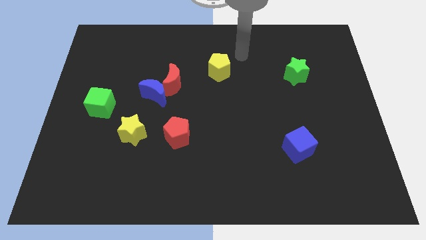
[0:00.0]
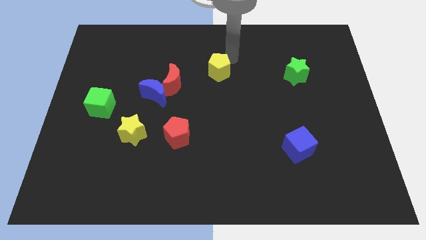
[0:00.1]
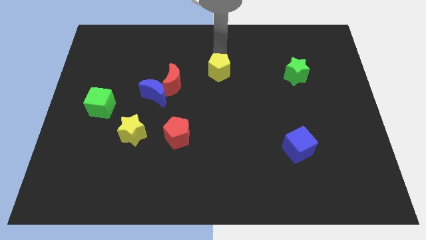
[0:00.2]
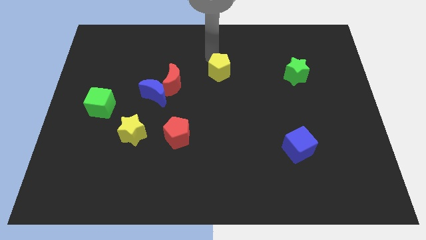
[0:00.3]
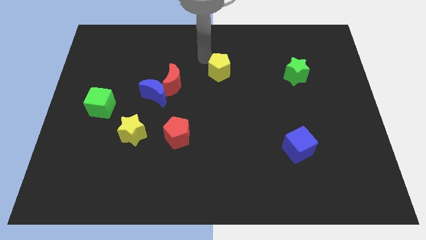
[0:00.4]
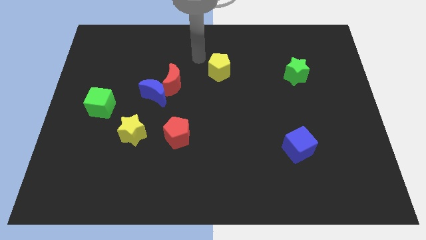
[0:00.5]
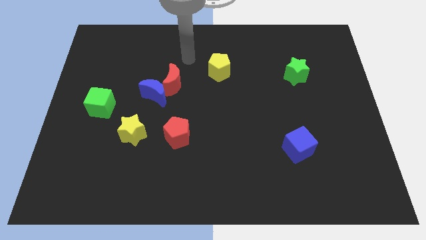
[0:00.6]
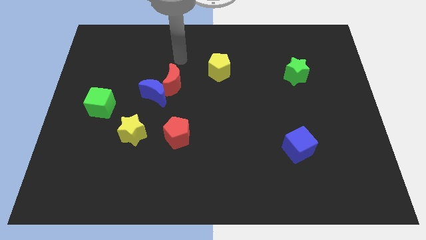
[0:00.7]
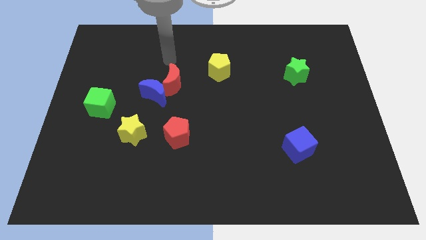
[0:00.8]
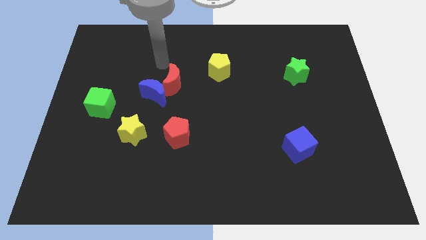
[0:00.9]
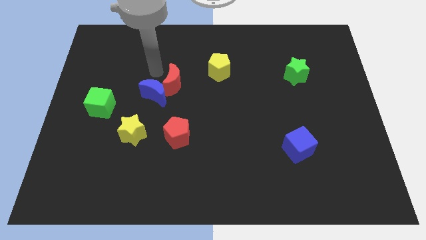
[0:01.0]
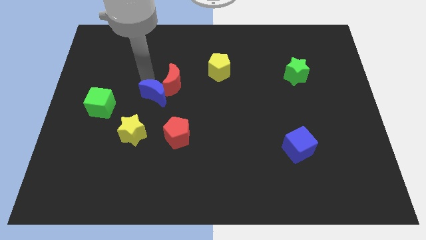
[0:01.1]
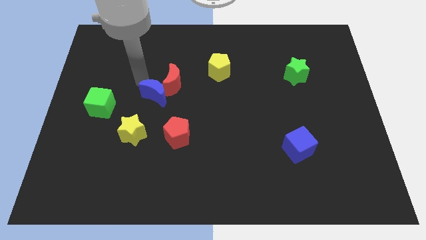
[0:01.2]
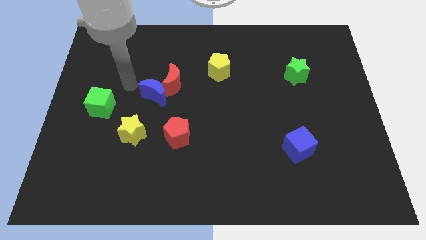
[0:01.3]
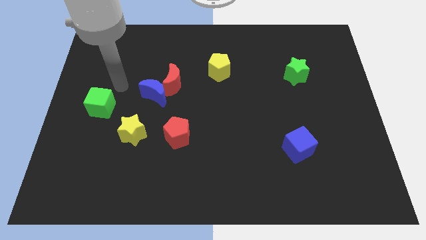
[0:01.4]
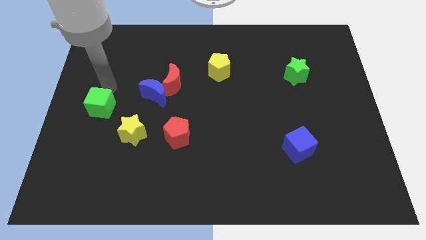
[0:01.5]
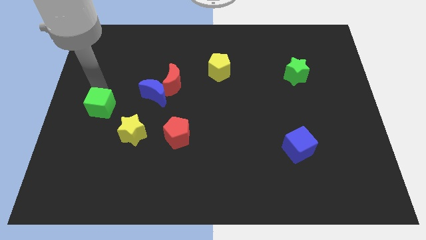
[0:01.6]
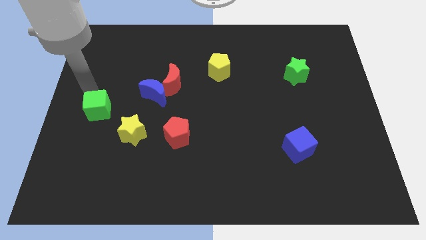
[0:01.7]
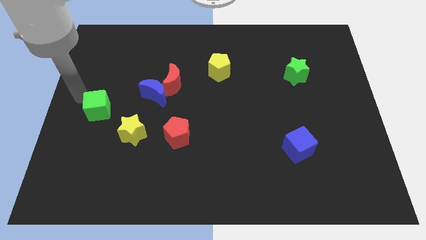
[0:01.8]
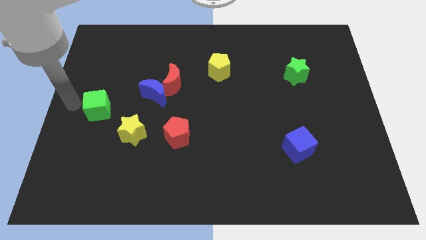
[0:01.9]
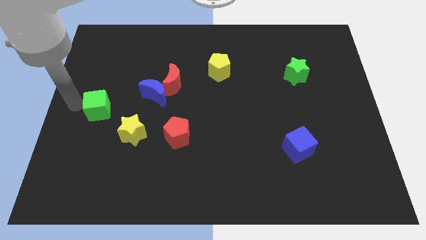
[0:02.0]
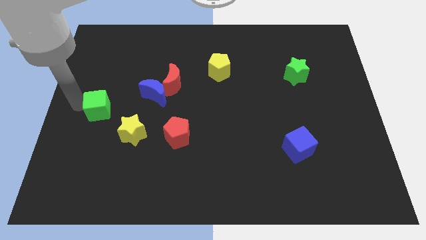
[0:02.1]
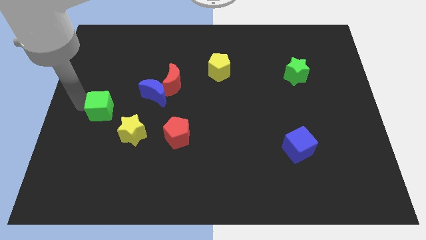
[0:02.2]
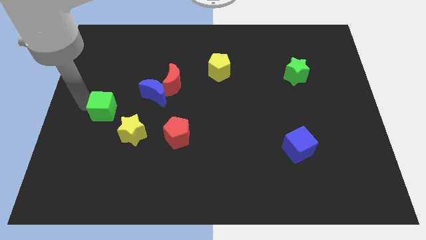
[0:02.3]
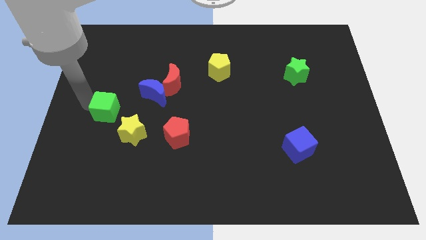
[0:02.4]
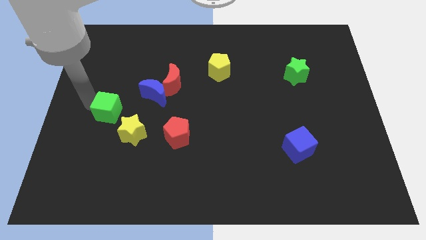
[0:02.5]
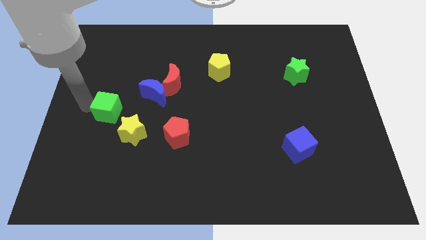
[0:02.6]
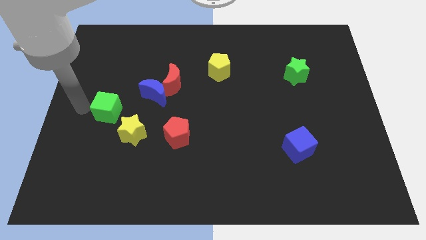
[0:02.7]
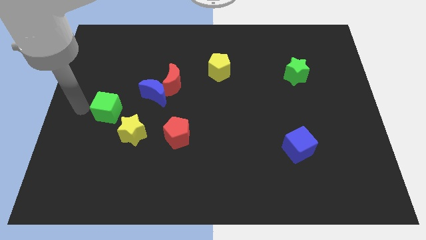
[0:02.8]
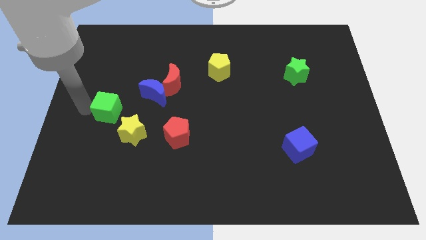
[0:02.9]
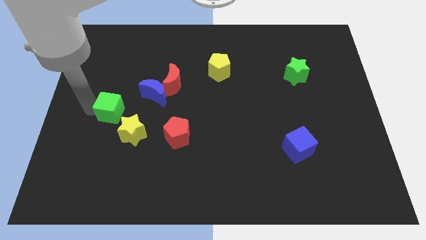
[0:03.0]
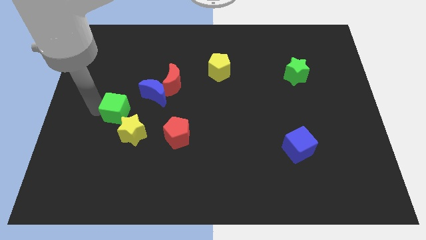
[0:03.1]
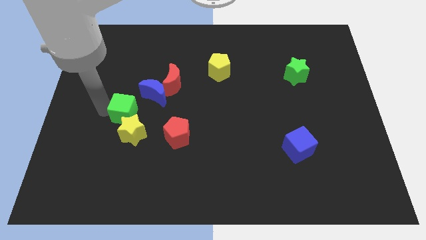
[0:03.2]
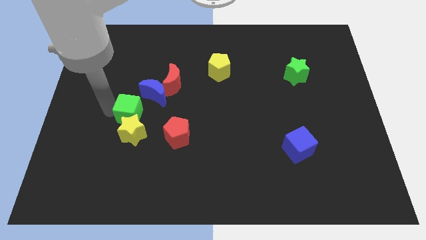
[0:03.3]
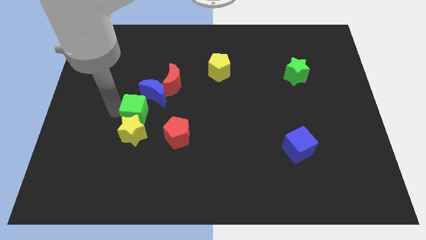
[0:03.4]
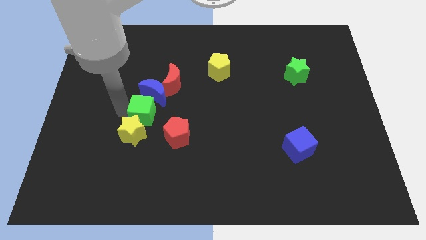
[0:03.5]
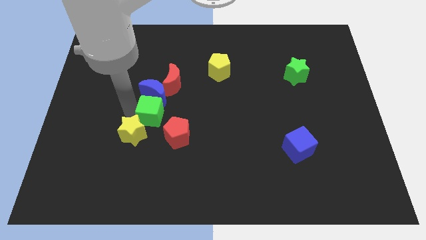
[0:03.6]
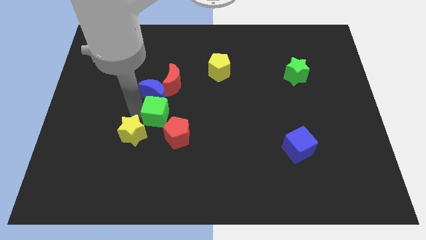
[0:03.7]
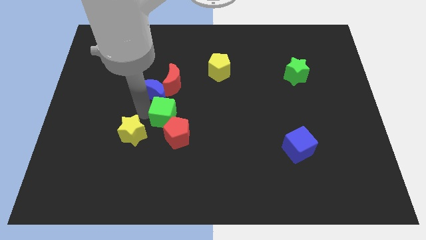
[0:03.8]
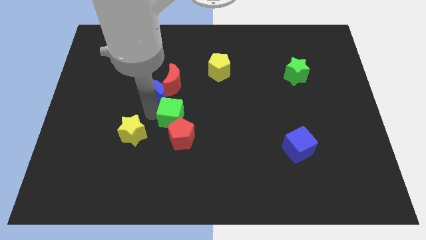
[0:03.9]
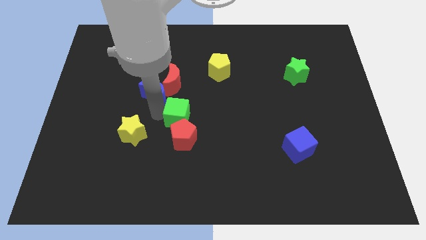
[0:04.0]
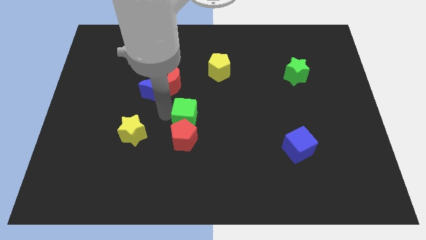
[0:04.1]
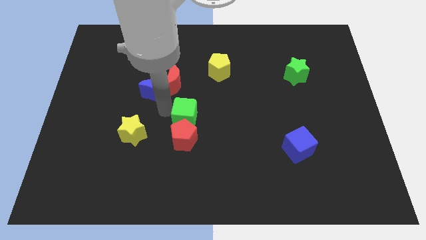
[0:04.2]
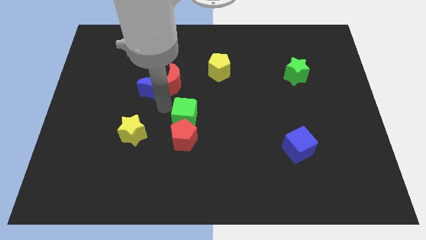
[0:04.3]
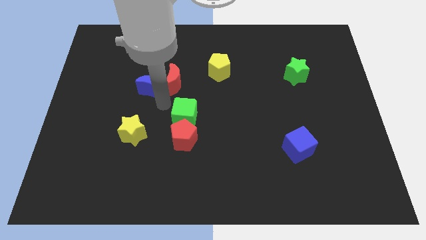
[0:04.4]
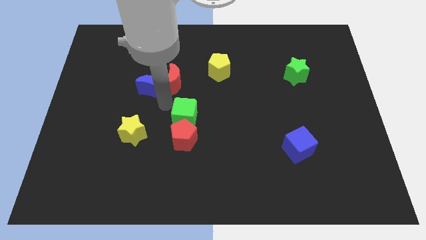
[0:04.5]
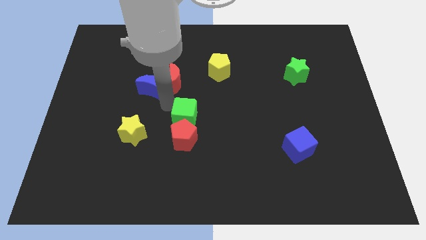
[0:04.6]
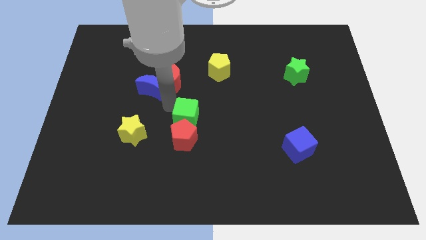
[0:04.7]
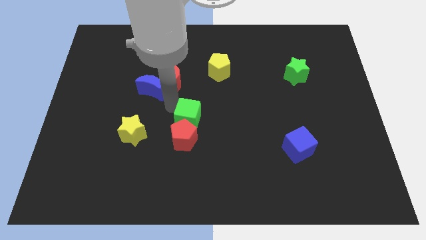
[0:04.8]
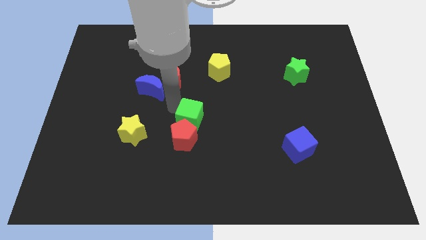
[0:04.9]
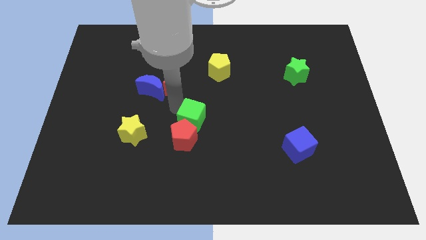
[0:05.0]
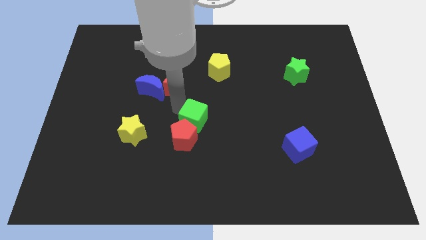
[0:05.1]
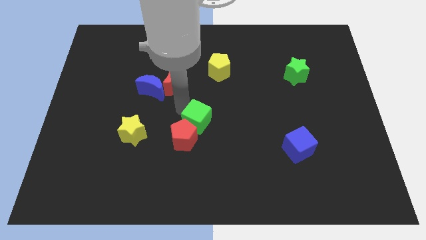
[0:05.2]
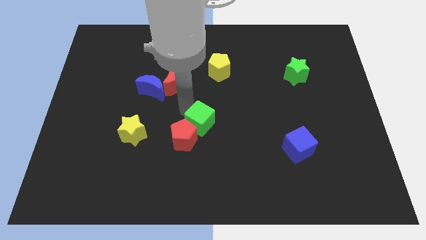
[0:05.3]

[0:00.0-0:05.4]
put the green cube right of the red pentagon

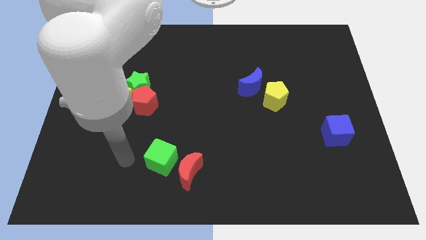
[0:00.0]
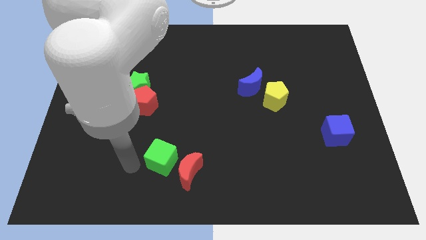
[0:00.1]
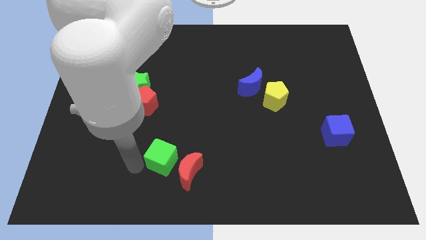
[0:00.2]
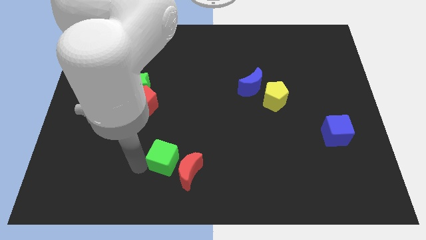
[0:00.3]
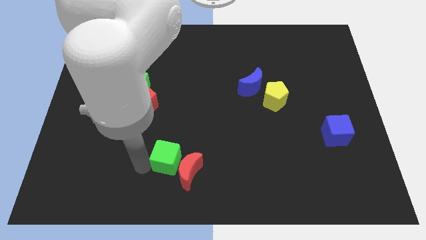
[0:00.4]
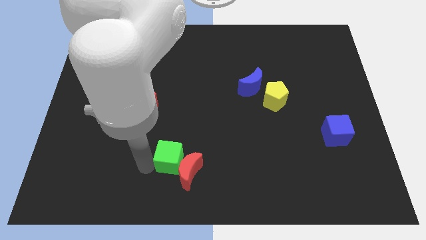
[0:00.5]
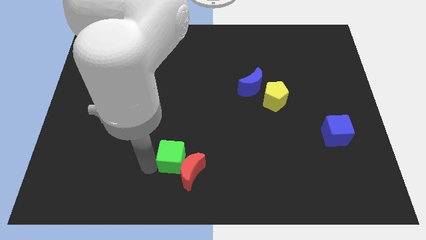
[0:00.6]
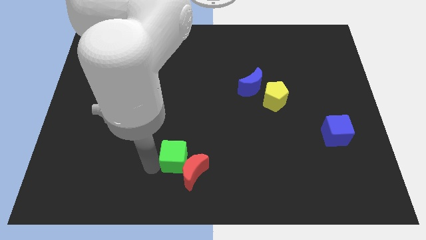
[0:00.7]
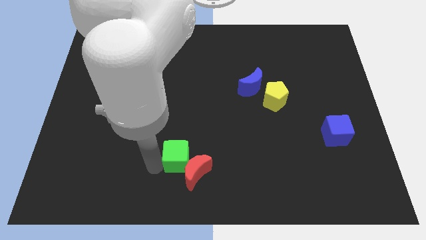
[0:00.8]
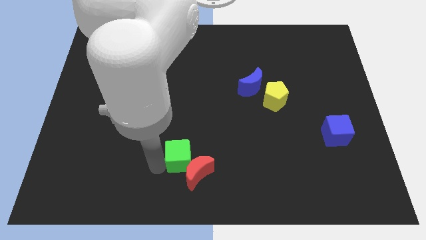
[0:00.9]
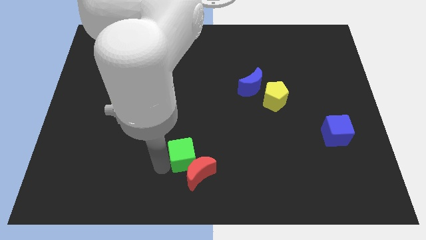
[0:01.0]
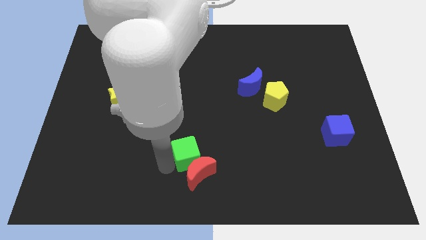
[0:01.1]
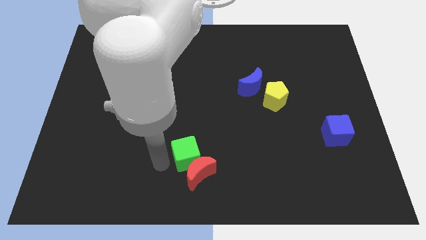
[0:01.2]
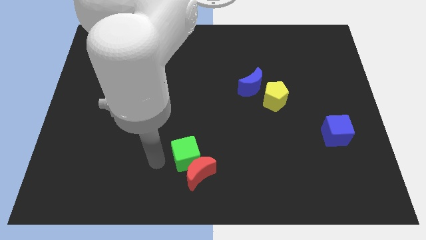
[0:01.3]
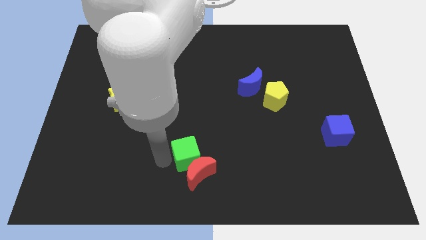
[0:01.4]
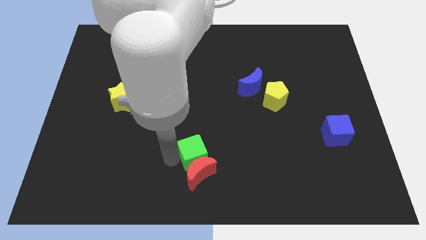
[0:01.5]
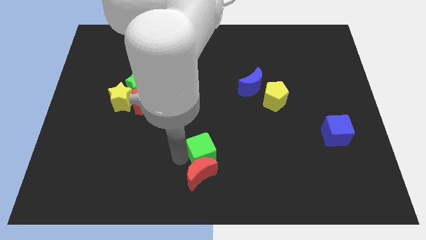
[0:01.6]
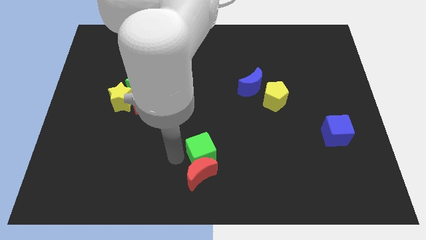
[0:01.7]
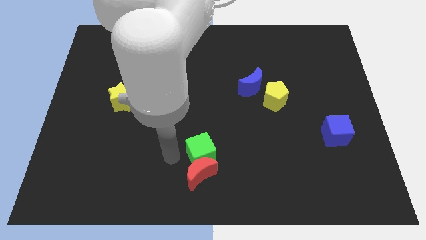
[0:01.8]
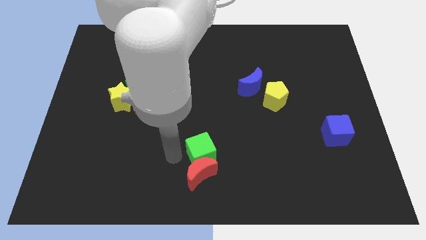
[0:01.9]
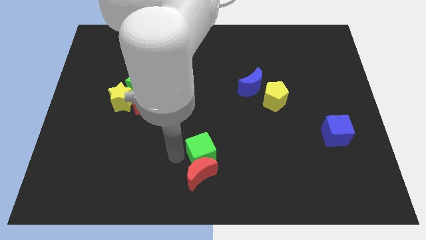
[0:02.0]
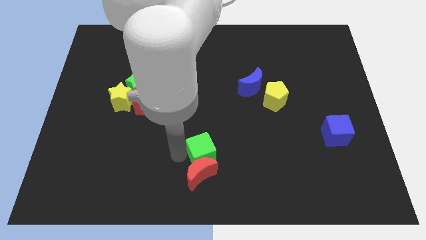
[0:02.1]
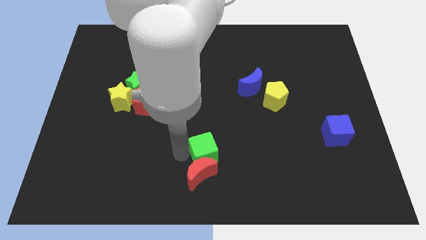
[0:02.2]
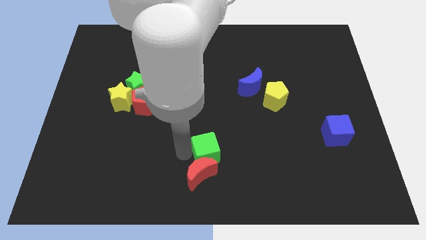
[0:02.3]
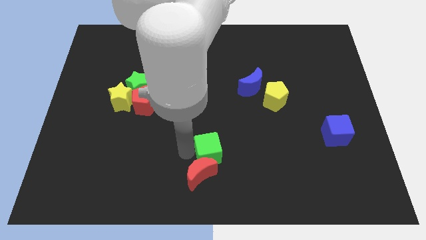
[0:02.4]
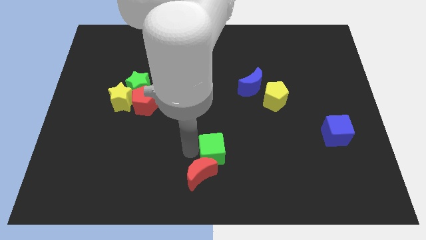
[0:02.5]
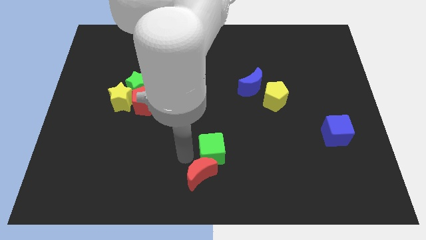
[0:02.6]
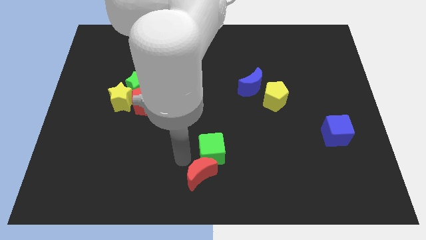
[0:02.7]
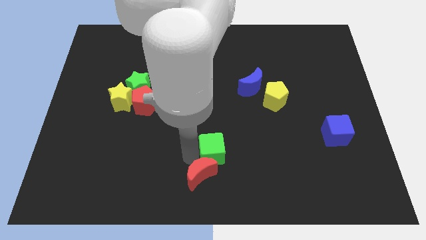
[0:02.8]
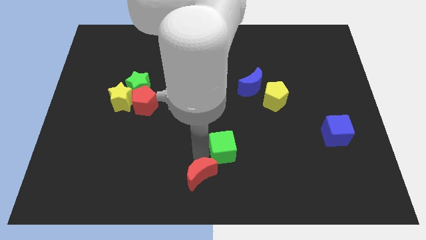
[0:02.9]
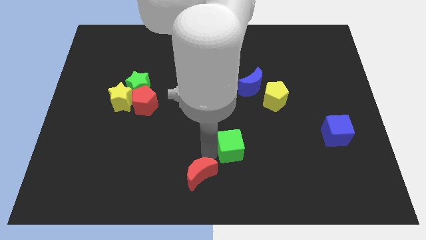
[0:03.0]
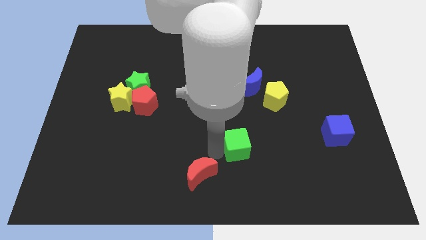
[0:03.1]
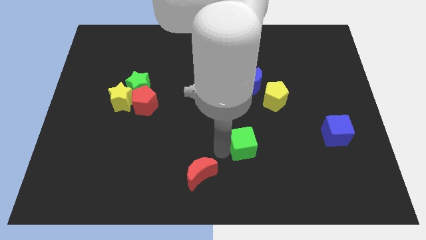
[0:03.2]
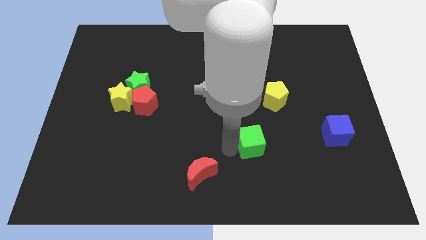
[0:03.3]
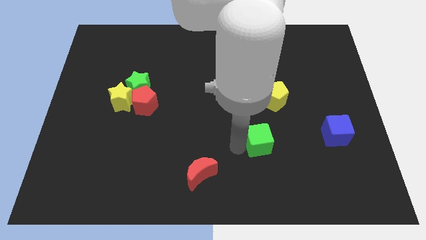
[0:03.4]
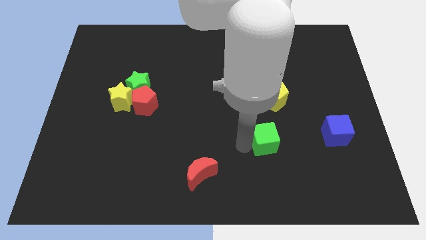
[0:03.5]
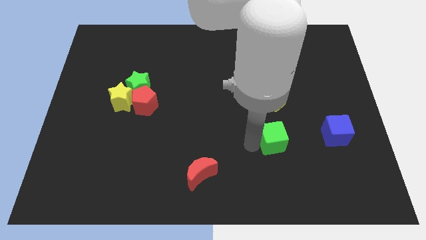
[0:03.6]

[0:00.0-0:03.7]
push the green cube to the left side of the blue cube
